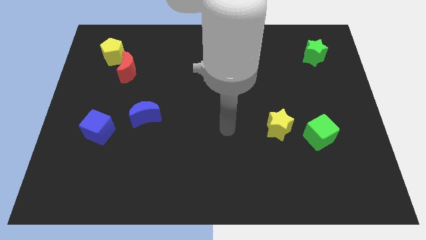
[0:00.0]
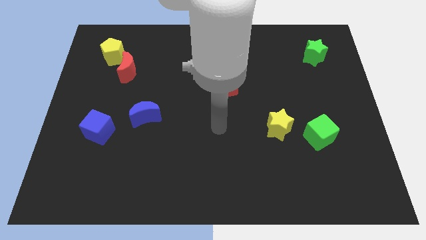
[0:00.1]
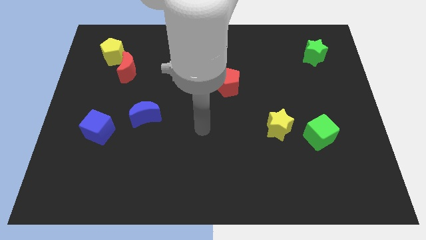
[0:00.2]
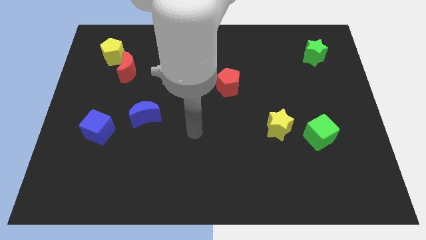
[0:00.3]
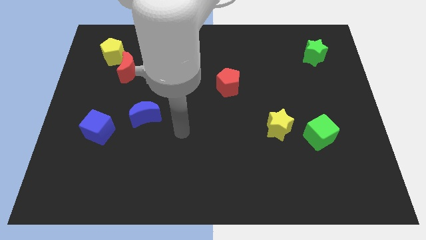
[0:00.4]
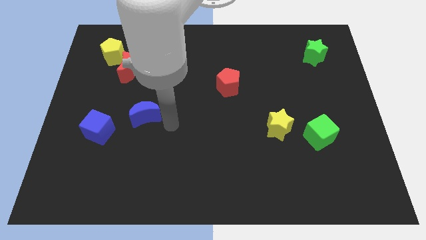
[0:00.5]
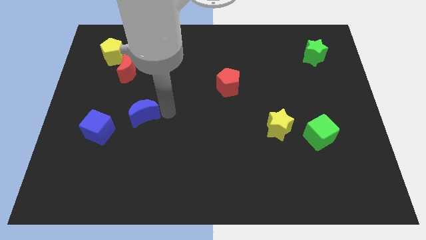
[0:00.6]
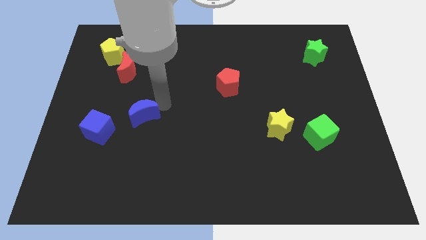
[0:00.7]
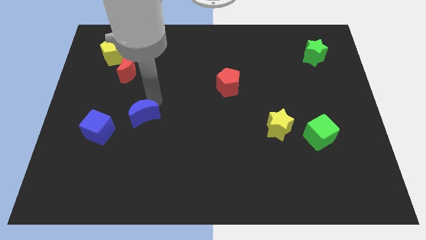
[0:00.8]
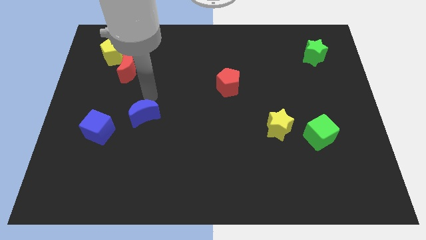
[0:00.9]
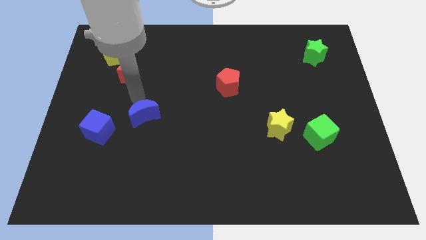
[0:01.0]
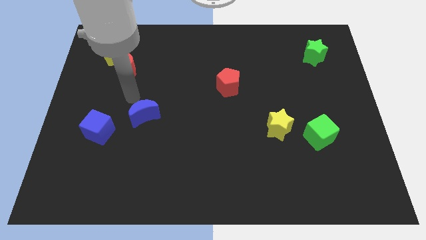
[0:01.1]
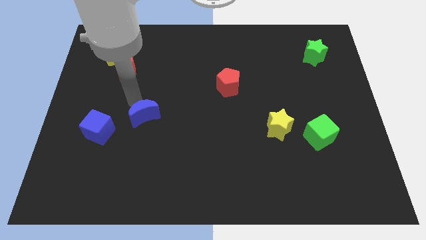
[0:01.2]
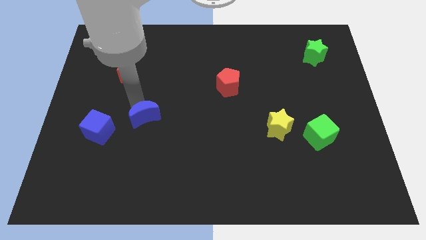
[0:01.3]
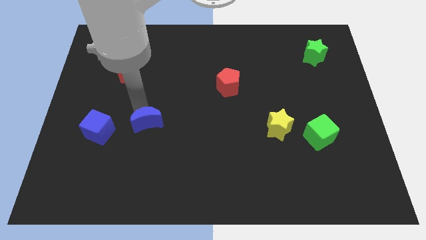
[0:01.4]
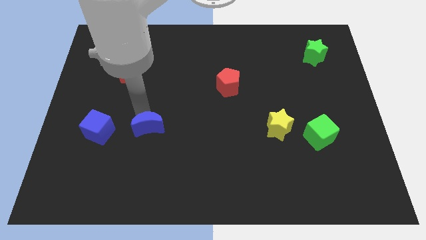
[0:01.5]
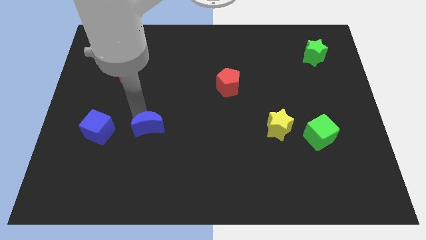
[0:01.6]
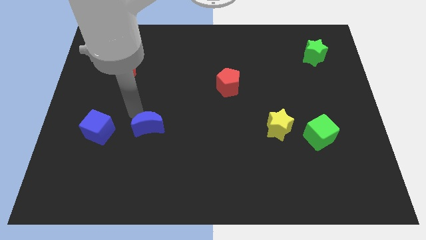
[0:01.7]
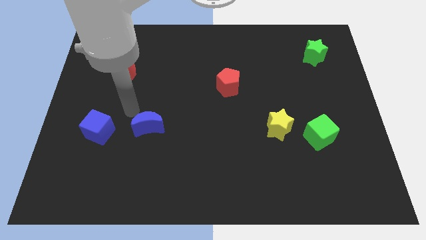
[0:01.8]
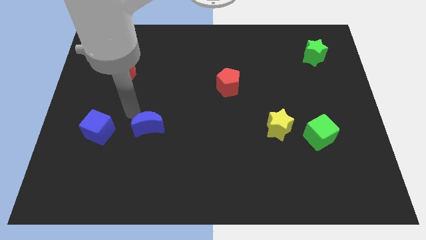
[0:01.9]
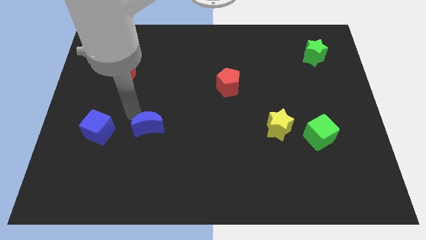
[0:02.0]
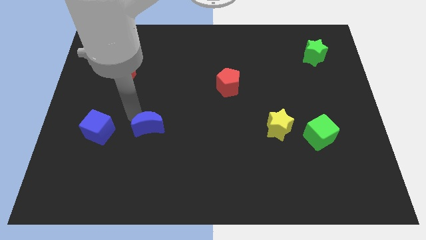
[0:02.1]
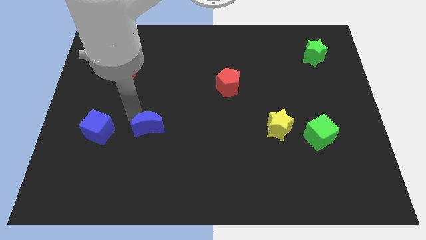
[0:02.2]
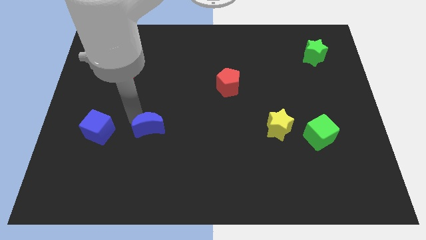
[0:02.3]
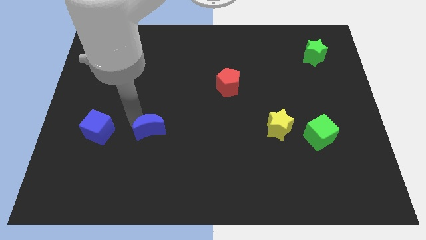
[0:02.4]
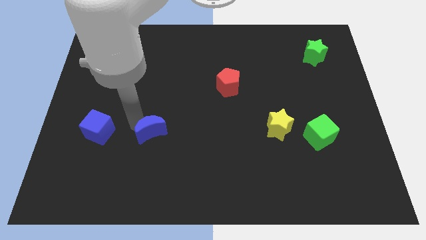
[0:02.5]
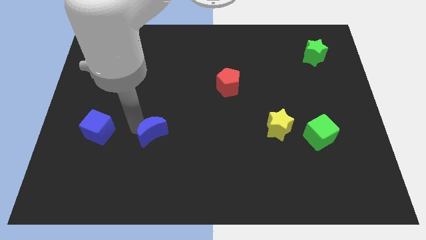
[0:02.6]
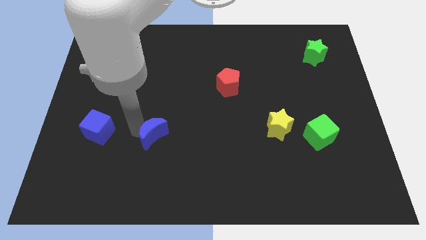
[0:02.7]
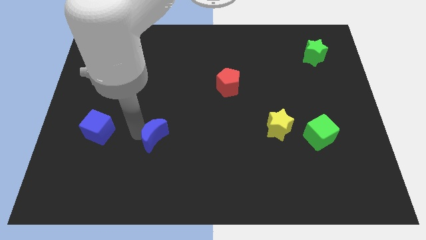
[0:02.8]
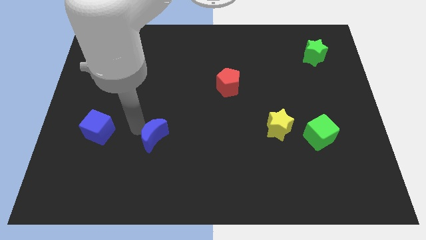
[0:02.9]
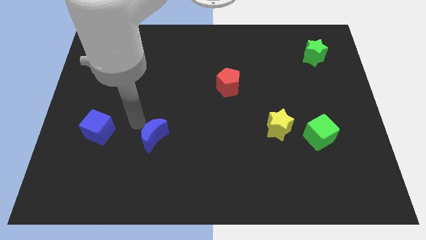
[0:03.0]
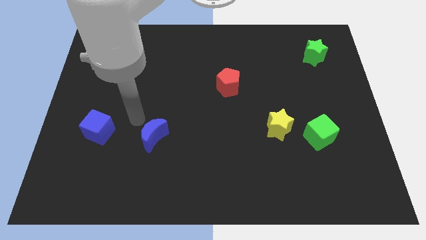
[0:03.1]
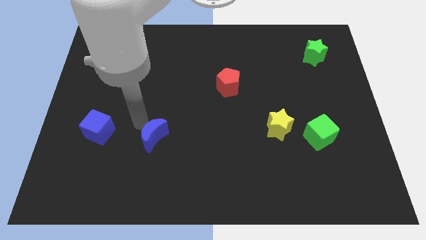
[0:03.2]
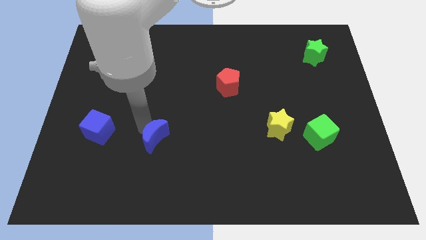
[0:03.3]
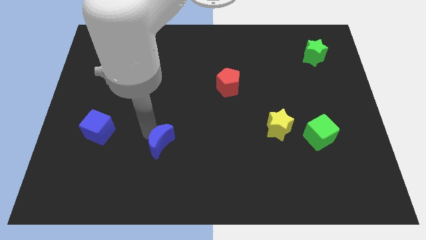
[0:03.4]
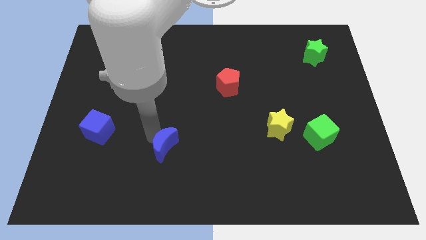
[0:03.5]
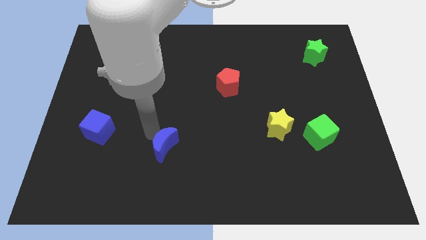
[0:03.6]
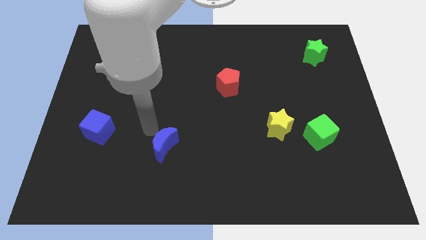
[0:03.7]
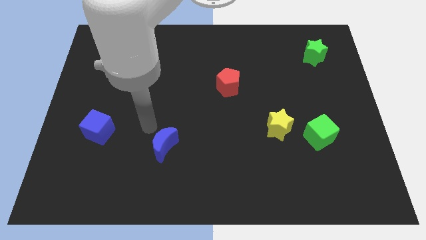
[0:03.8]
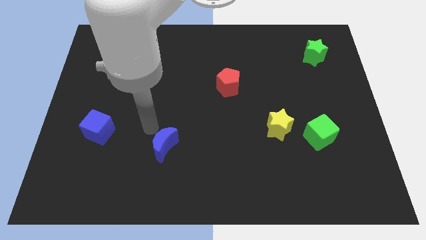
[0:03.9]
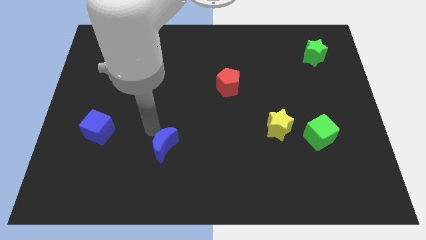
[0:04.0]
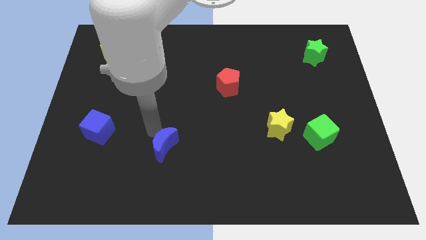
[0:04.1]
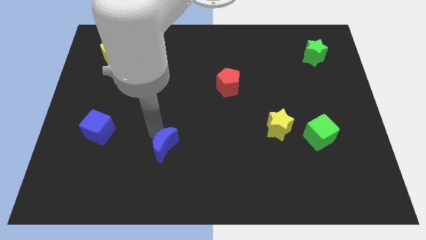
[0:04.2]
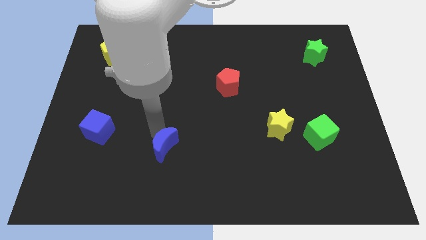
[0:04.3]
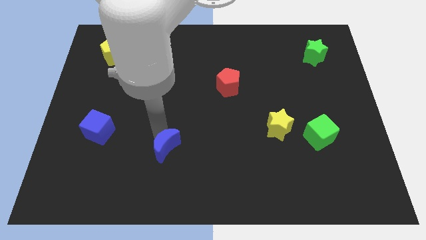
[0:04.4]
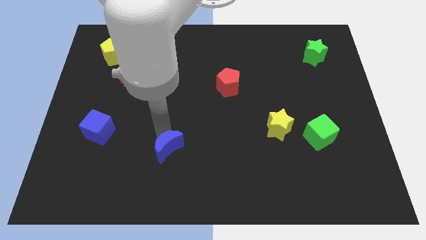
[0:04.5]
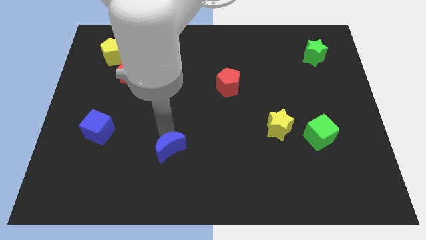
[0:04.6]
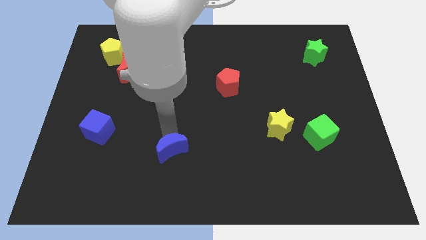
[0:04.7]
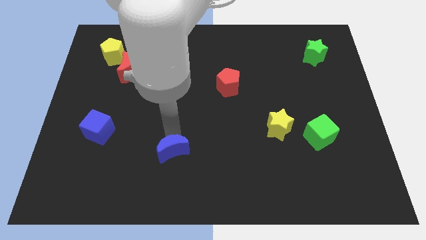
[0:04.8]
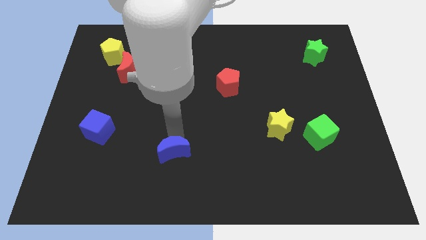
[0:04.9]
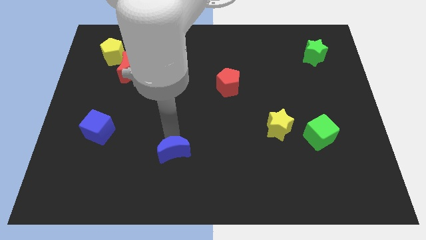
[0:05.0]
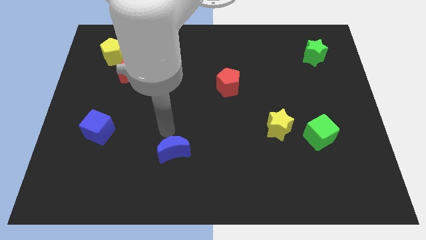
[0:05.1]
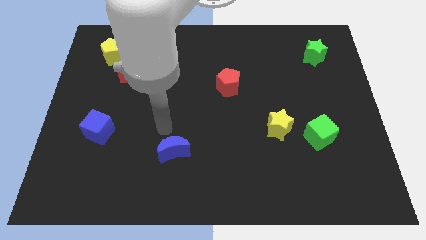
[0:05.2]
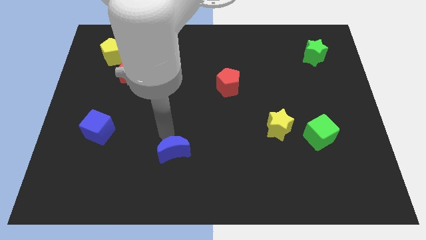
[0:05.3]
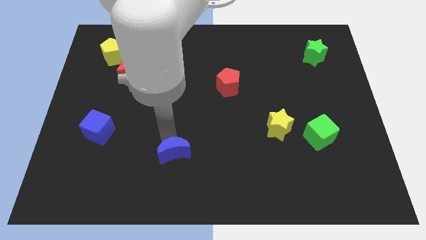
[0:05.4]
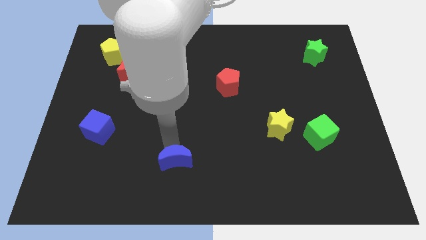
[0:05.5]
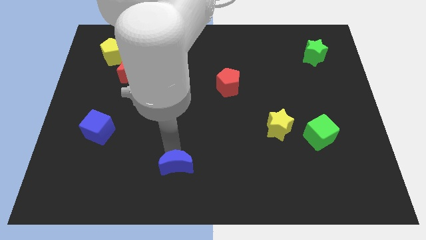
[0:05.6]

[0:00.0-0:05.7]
put the blue moon to the bottom side

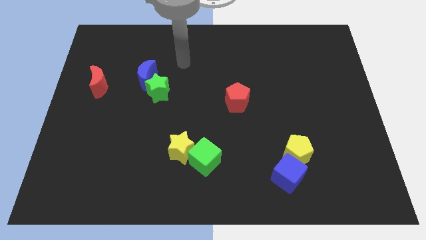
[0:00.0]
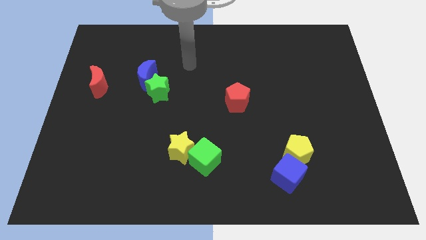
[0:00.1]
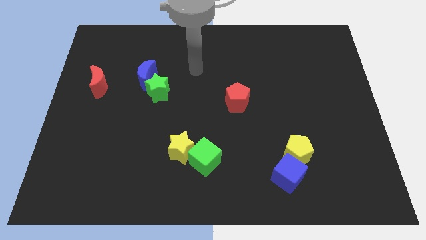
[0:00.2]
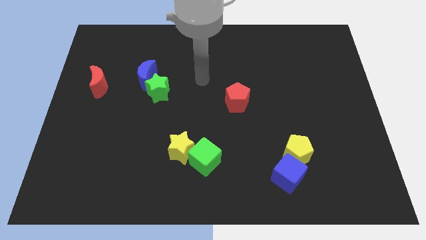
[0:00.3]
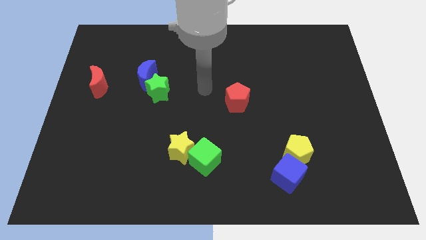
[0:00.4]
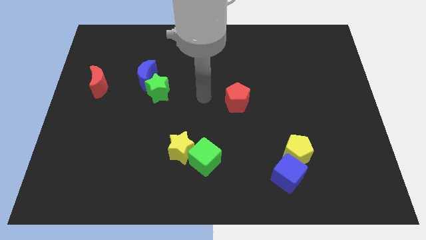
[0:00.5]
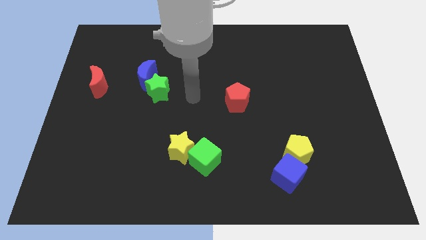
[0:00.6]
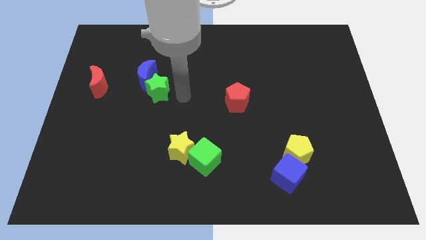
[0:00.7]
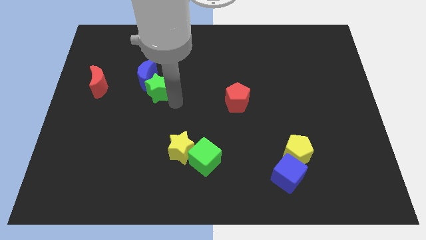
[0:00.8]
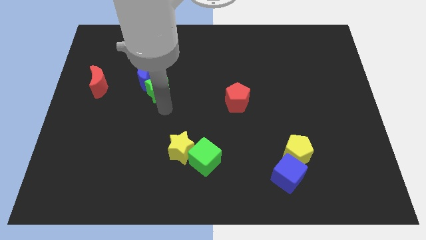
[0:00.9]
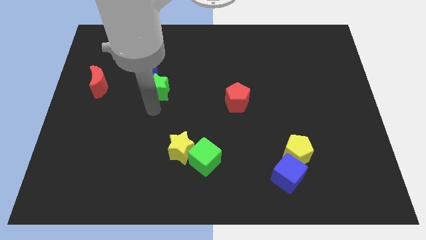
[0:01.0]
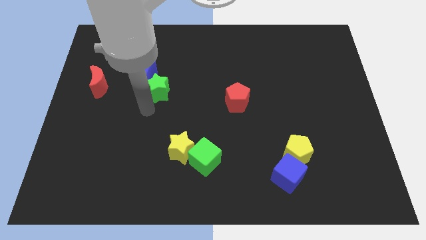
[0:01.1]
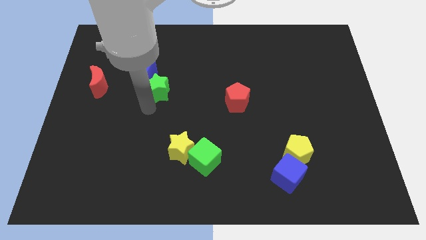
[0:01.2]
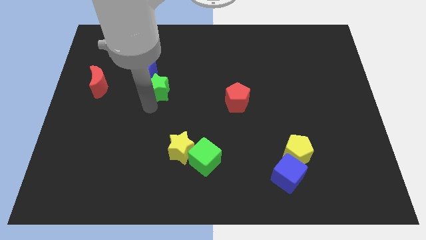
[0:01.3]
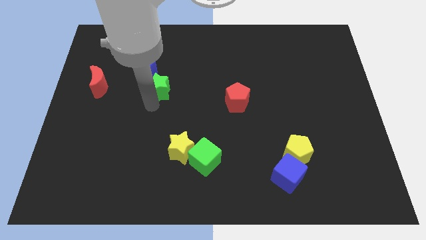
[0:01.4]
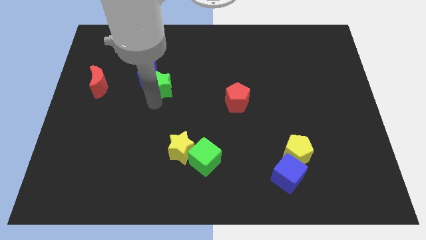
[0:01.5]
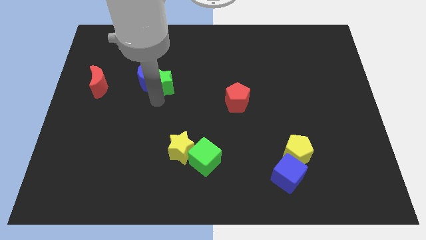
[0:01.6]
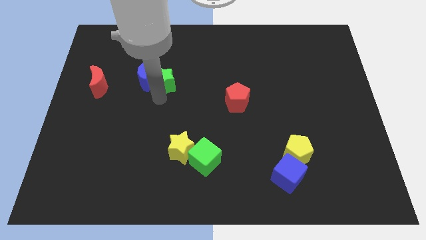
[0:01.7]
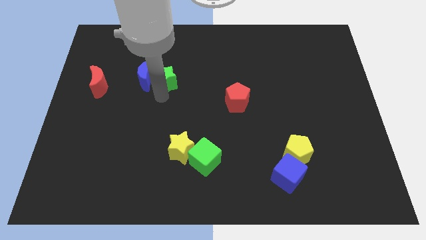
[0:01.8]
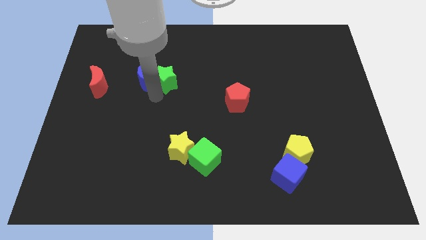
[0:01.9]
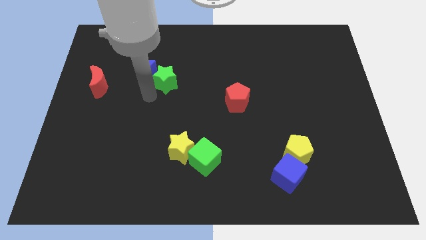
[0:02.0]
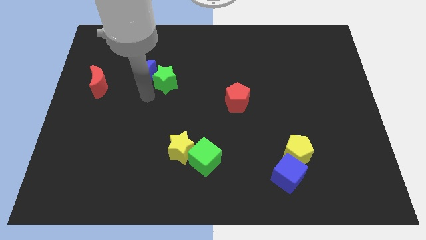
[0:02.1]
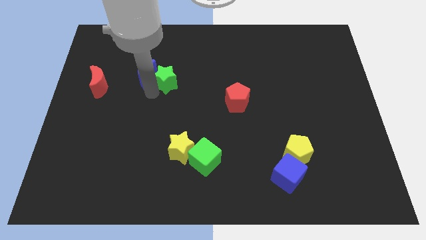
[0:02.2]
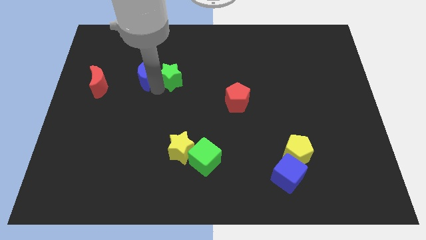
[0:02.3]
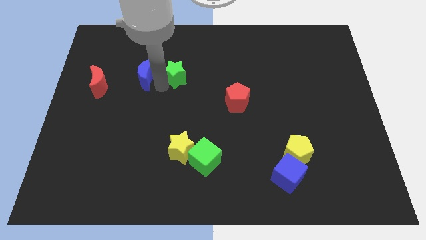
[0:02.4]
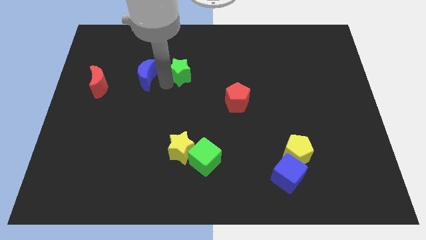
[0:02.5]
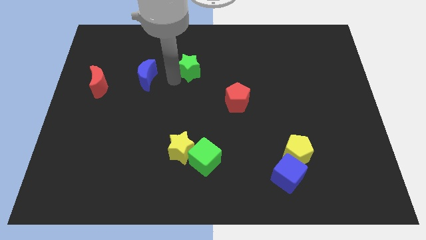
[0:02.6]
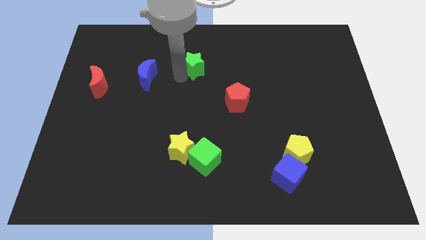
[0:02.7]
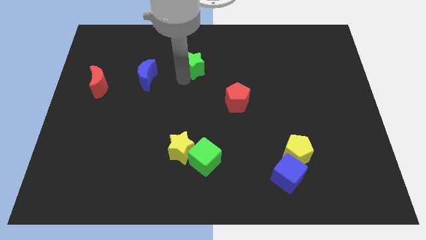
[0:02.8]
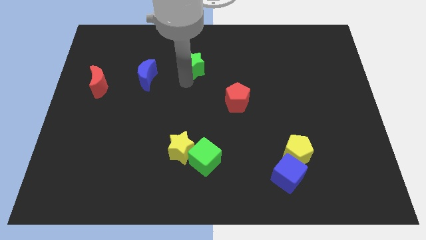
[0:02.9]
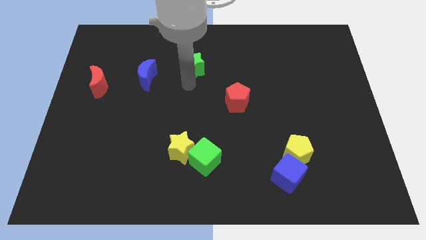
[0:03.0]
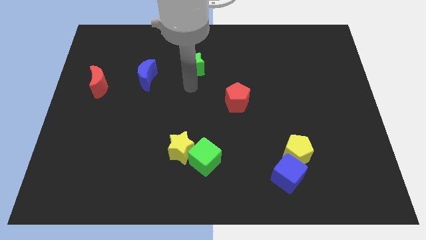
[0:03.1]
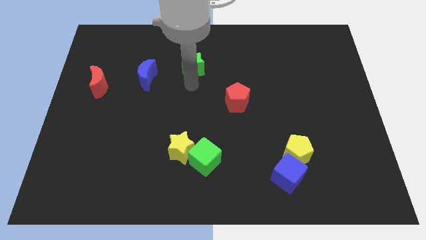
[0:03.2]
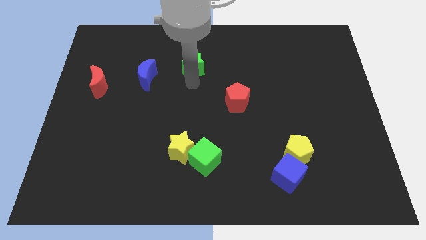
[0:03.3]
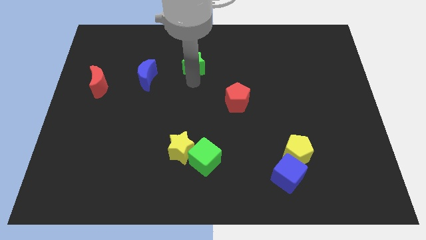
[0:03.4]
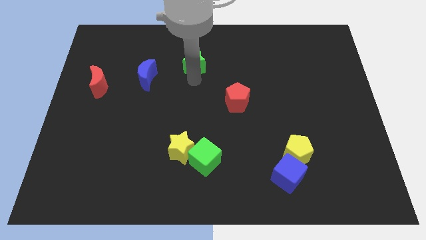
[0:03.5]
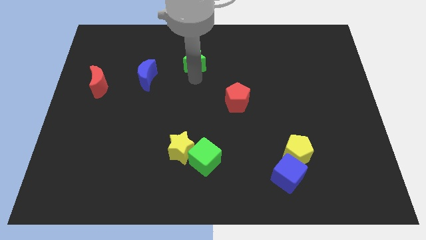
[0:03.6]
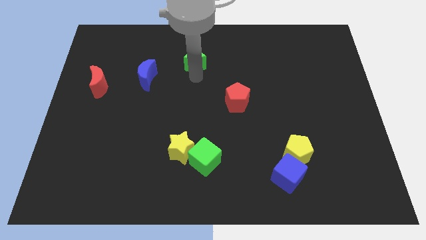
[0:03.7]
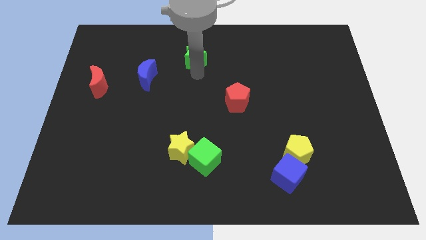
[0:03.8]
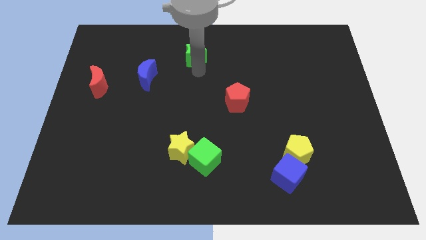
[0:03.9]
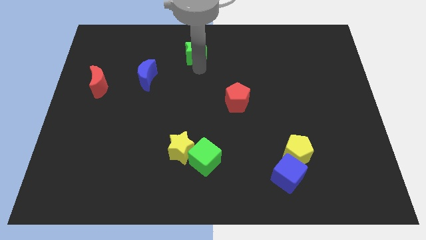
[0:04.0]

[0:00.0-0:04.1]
push the green star to the top side
